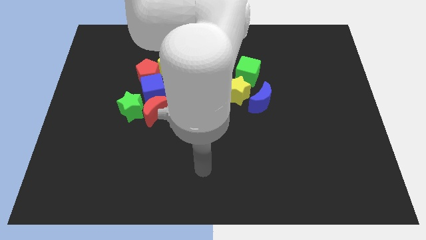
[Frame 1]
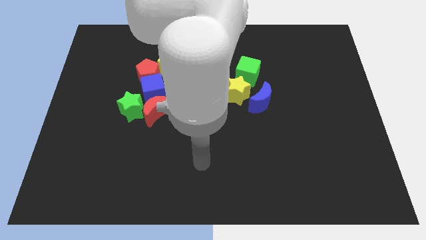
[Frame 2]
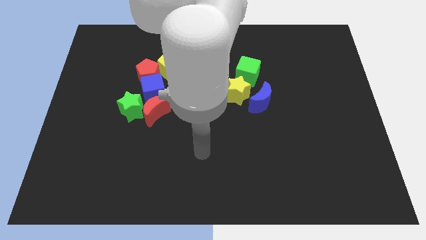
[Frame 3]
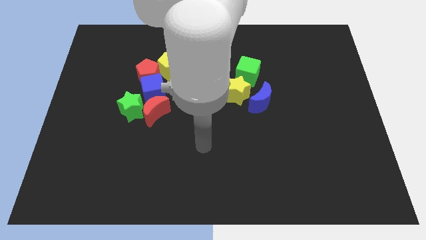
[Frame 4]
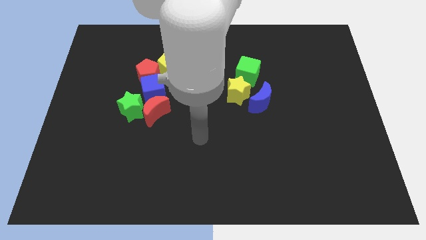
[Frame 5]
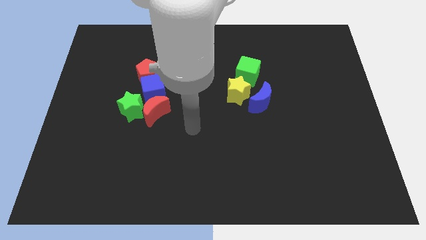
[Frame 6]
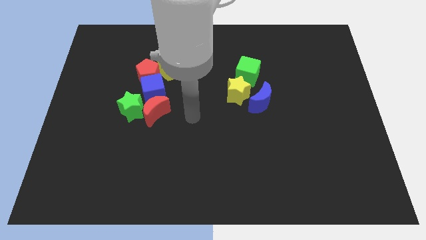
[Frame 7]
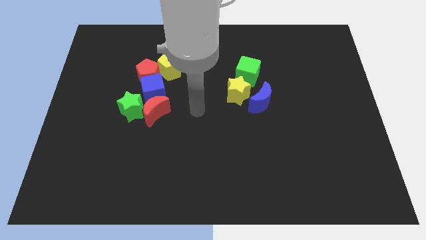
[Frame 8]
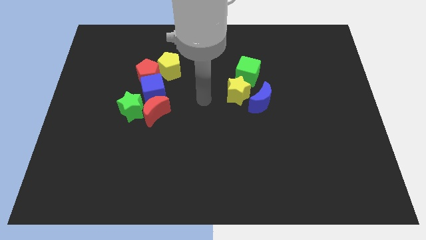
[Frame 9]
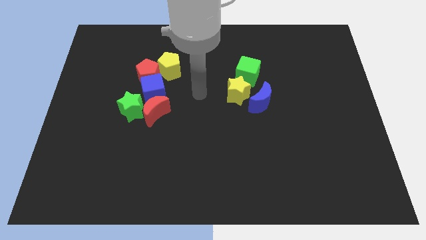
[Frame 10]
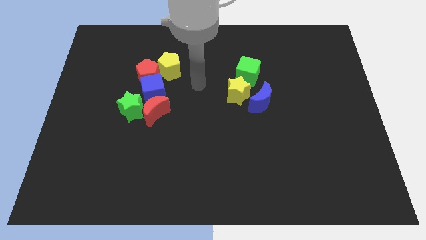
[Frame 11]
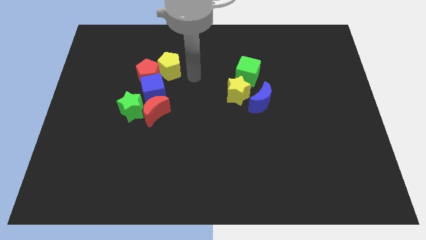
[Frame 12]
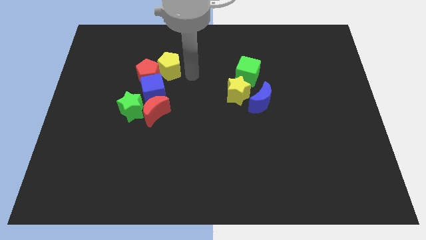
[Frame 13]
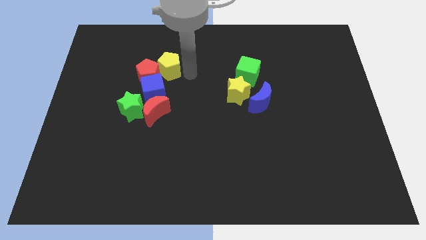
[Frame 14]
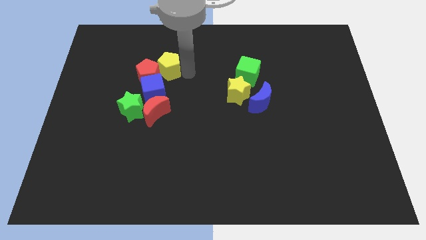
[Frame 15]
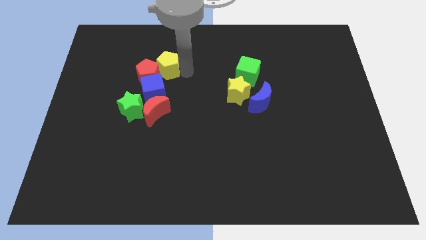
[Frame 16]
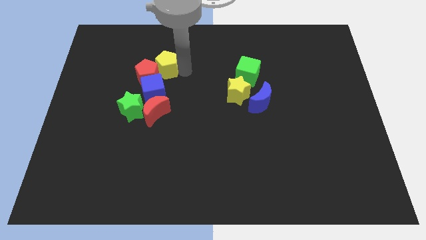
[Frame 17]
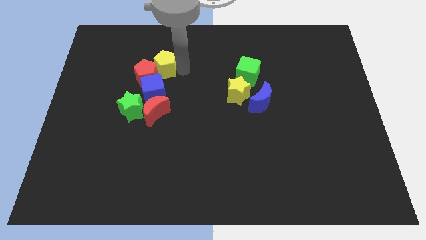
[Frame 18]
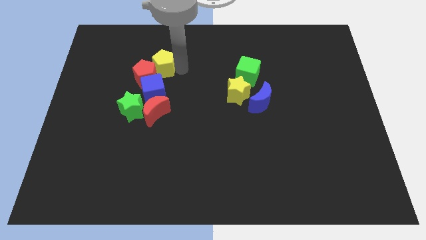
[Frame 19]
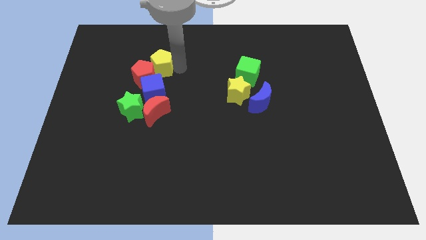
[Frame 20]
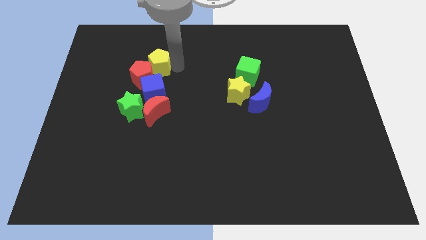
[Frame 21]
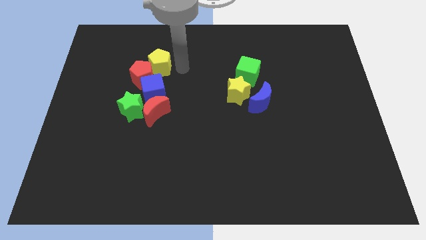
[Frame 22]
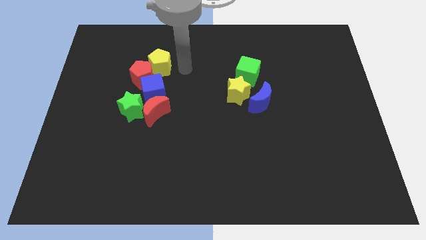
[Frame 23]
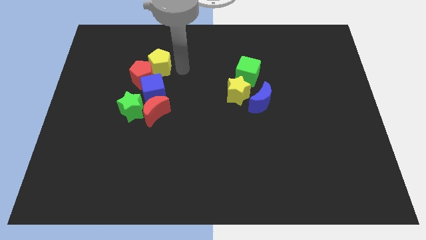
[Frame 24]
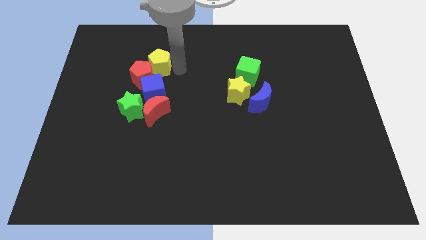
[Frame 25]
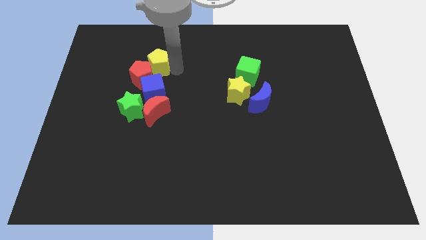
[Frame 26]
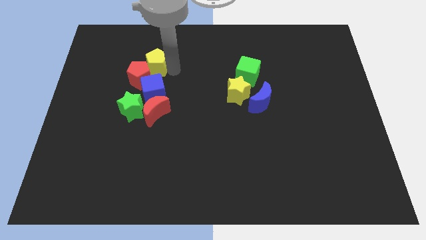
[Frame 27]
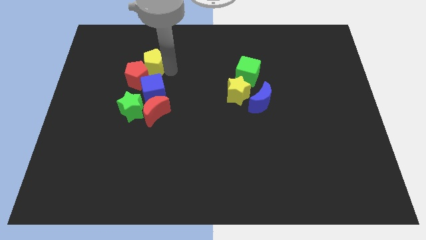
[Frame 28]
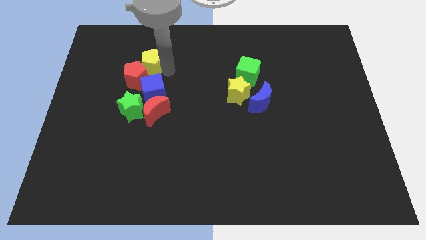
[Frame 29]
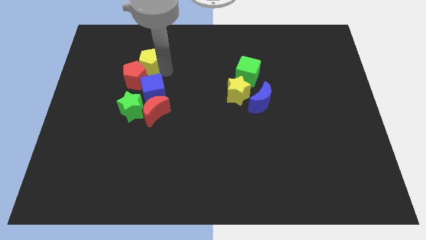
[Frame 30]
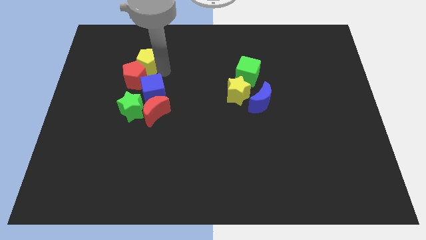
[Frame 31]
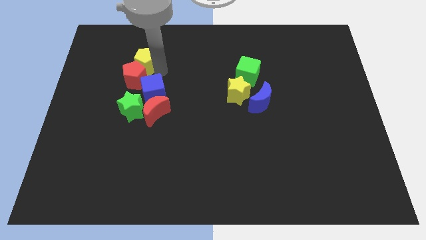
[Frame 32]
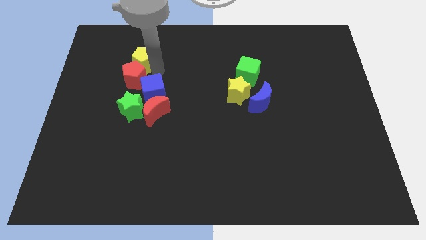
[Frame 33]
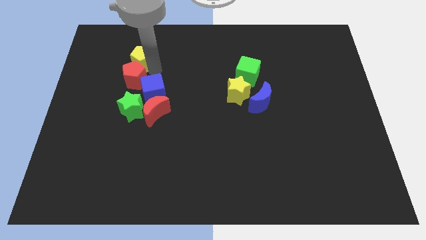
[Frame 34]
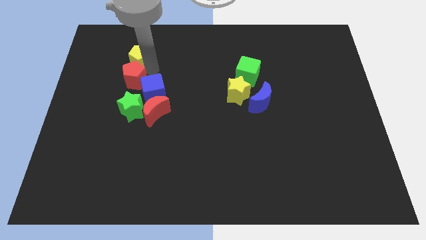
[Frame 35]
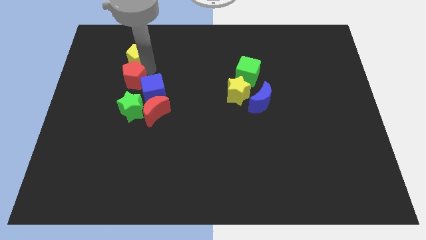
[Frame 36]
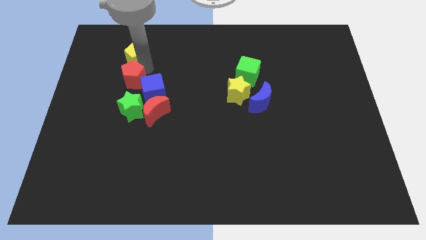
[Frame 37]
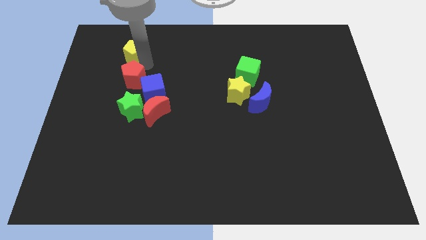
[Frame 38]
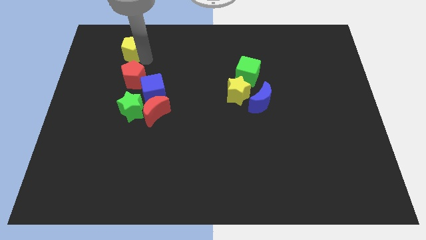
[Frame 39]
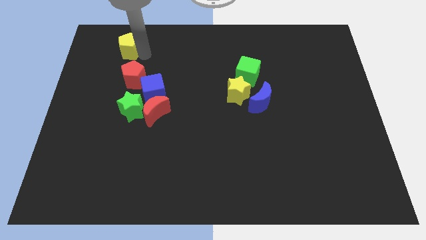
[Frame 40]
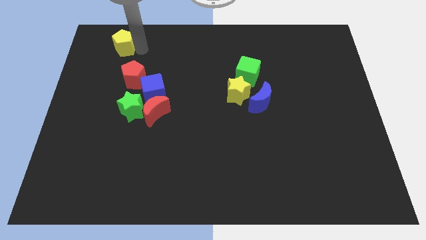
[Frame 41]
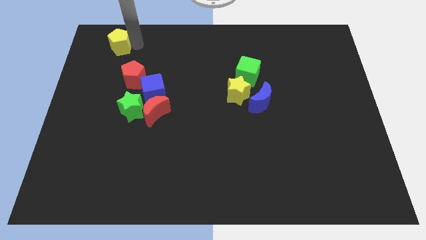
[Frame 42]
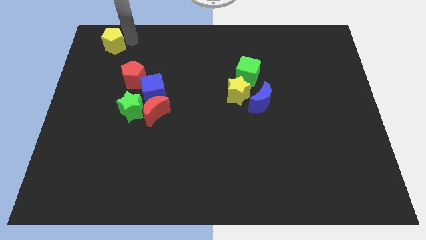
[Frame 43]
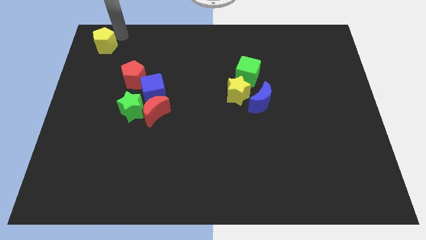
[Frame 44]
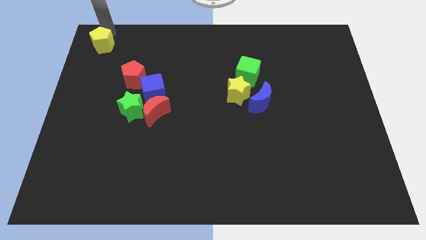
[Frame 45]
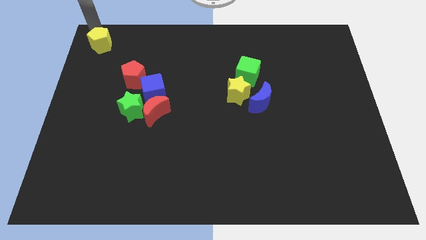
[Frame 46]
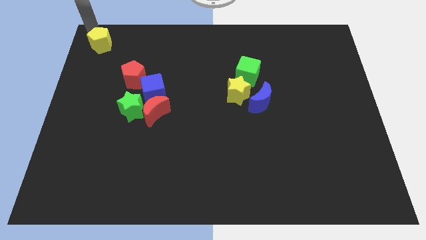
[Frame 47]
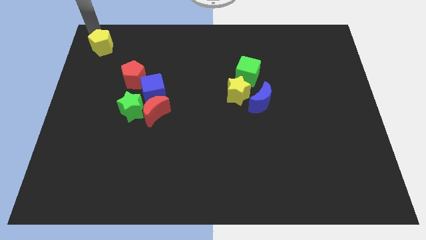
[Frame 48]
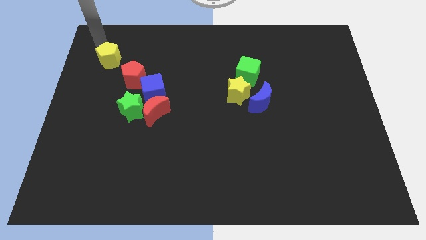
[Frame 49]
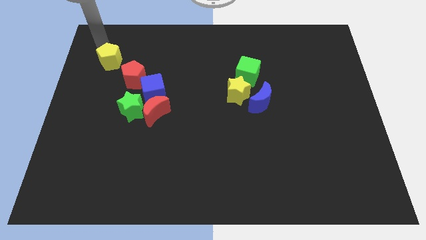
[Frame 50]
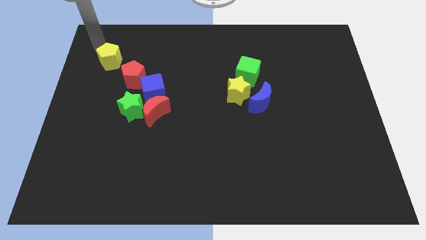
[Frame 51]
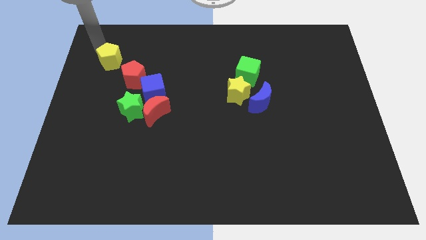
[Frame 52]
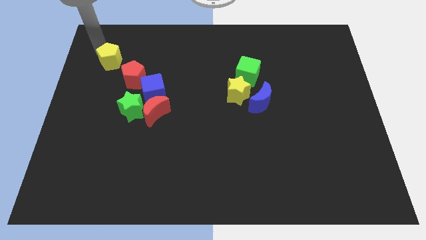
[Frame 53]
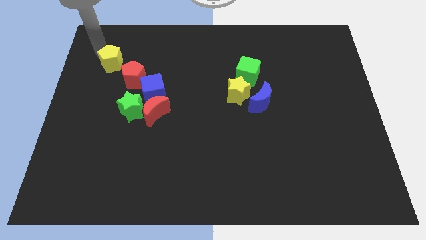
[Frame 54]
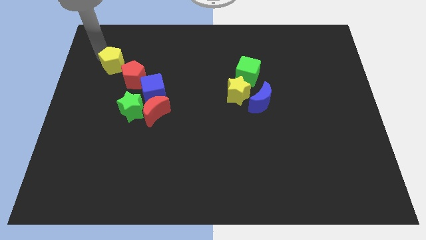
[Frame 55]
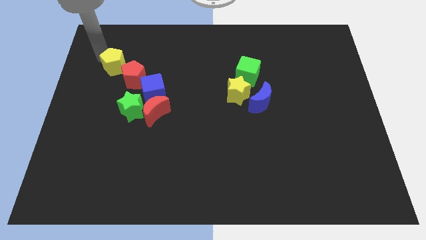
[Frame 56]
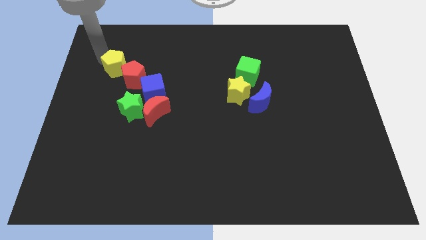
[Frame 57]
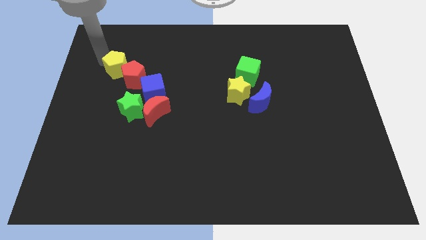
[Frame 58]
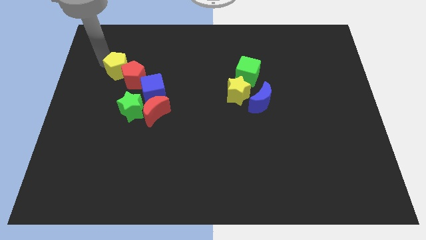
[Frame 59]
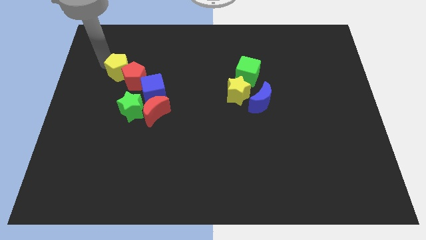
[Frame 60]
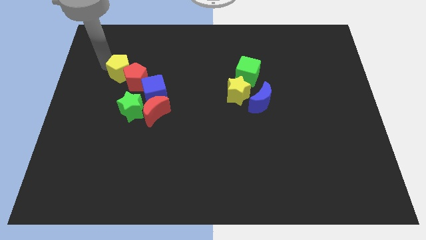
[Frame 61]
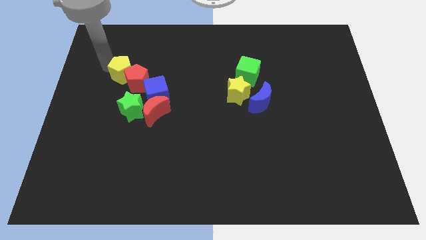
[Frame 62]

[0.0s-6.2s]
move the yellow pentagon downwards and to the left a bit

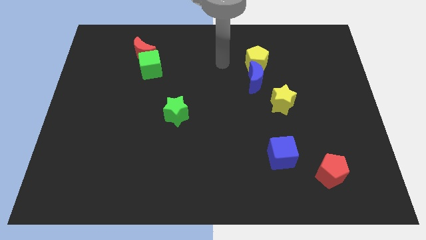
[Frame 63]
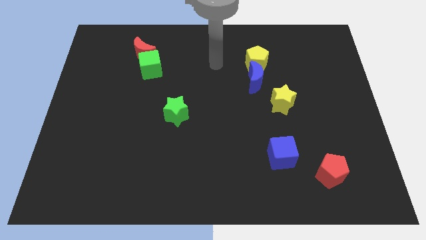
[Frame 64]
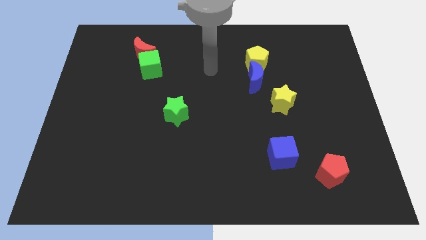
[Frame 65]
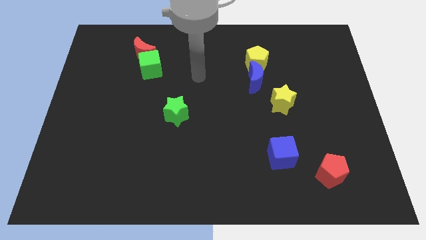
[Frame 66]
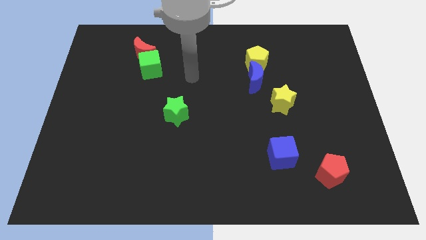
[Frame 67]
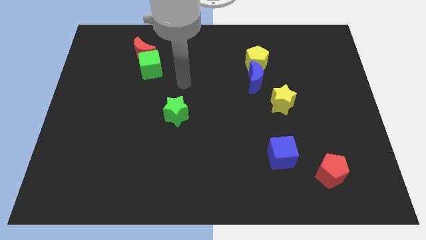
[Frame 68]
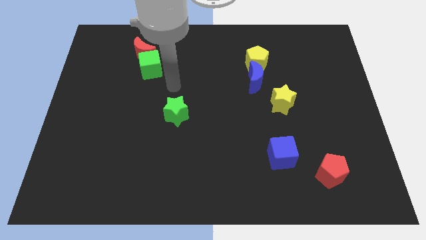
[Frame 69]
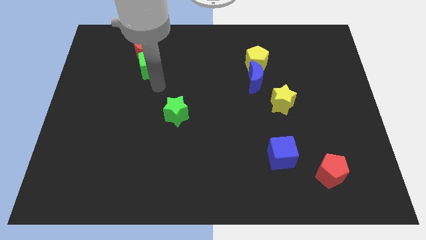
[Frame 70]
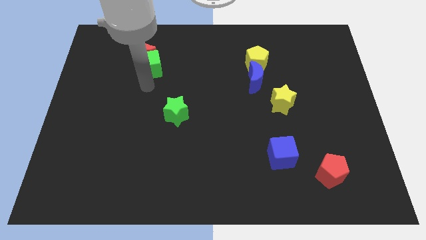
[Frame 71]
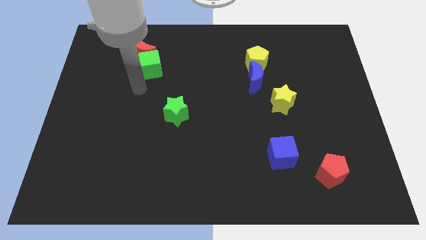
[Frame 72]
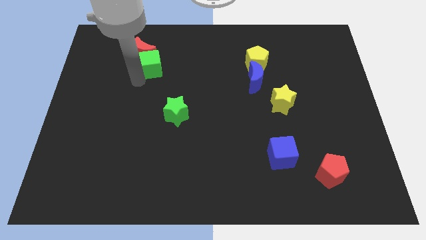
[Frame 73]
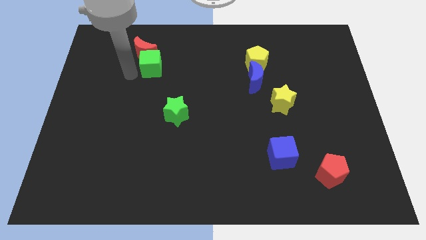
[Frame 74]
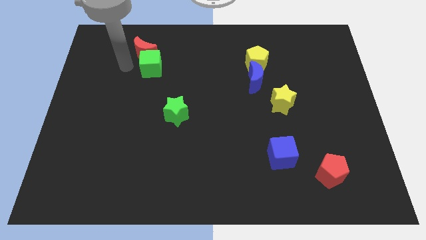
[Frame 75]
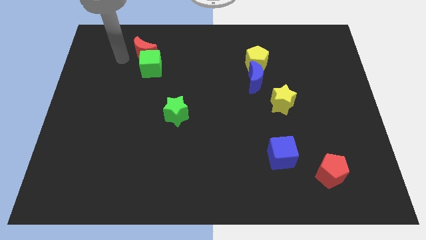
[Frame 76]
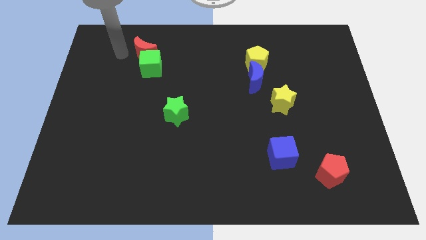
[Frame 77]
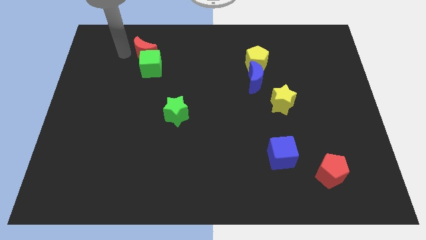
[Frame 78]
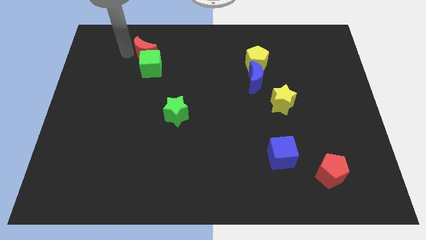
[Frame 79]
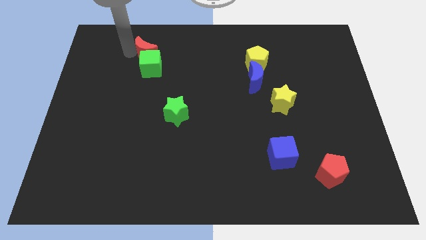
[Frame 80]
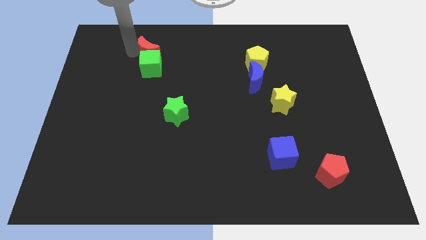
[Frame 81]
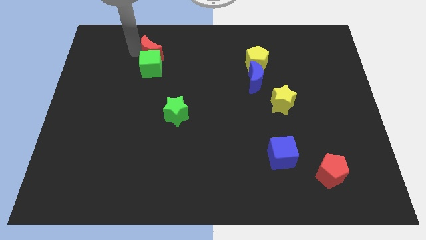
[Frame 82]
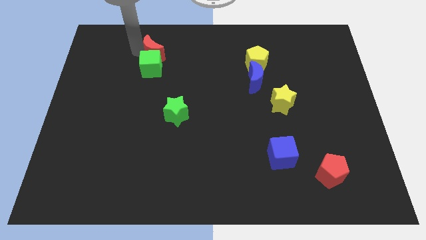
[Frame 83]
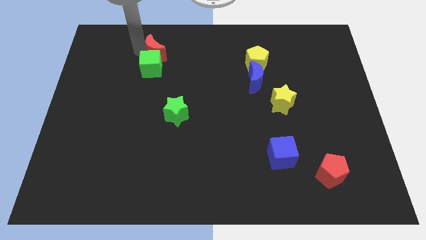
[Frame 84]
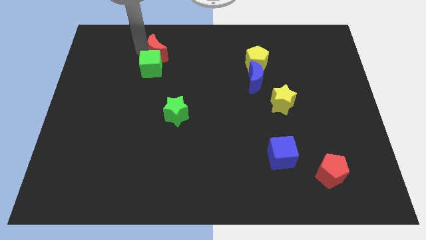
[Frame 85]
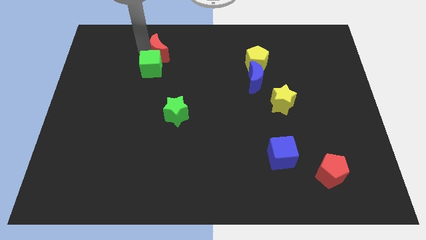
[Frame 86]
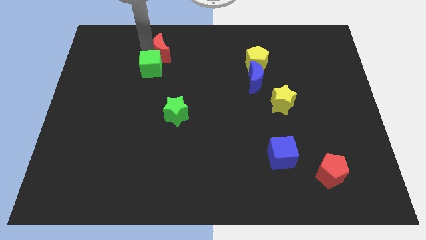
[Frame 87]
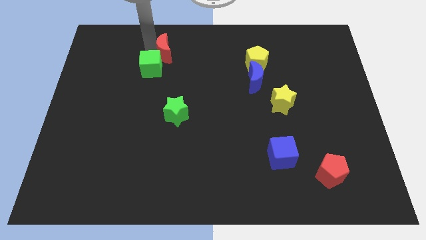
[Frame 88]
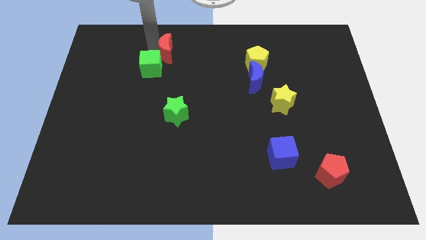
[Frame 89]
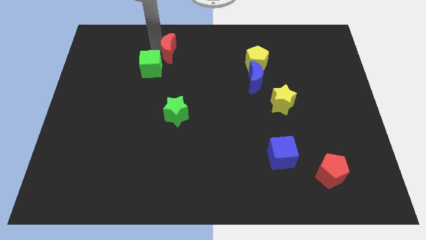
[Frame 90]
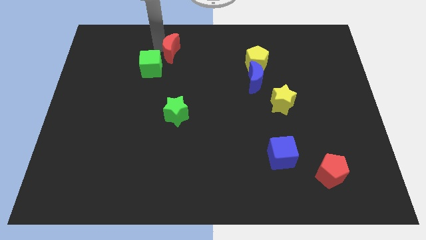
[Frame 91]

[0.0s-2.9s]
push the red moon a bit to the right
